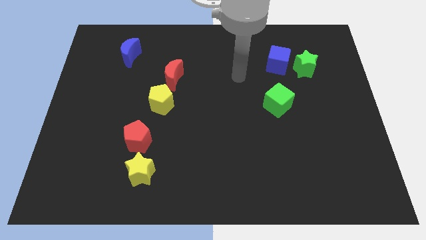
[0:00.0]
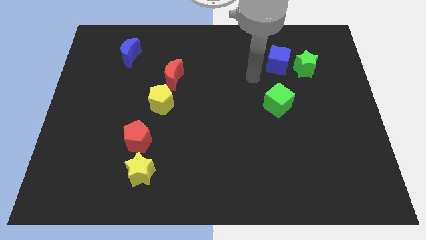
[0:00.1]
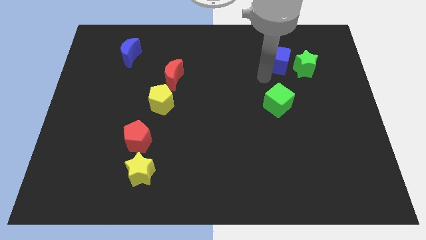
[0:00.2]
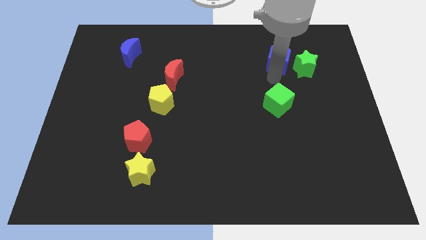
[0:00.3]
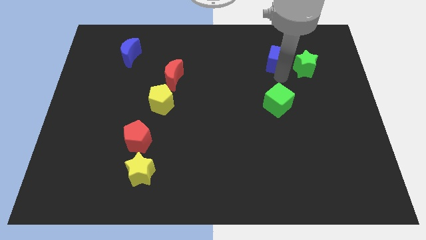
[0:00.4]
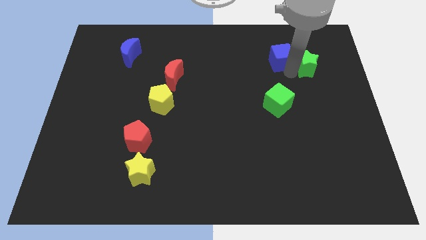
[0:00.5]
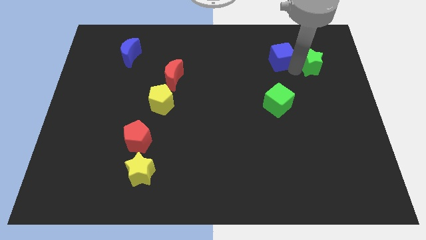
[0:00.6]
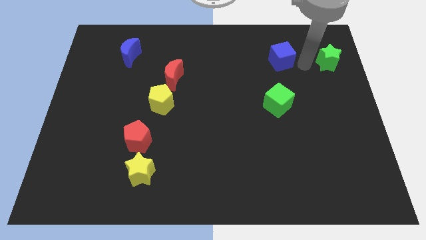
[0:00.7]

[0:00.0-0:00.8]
separate the blue cube from the green star

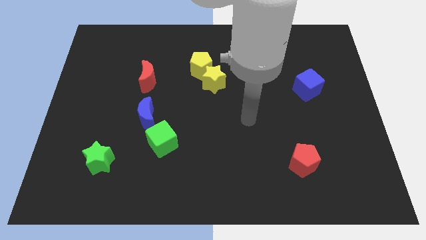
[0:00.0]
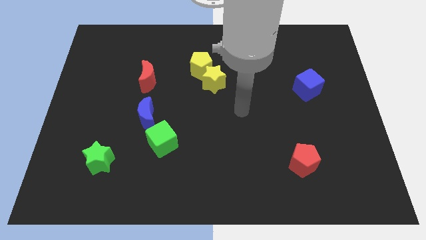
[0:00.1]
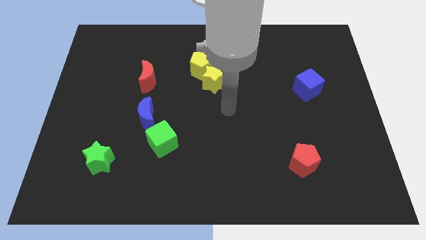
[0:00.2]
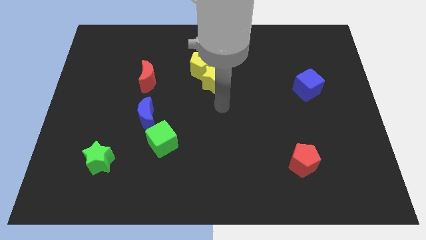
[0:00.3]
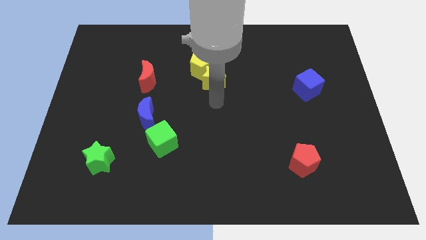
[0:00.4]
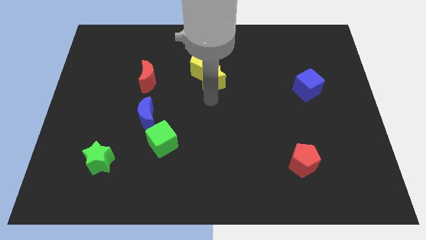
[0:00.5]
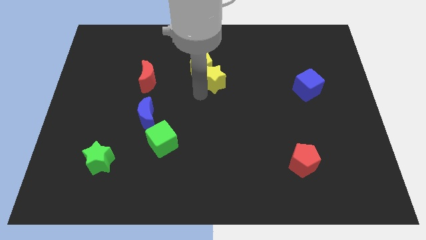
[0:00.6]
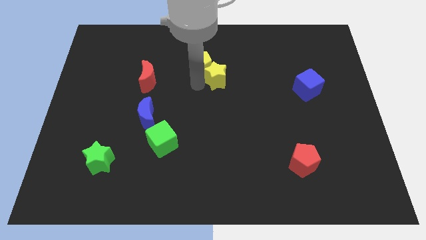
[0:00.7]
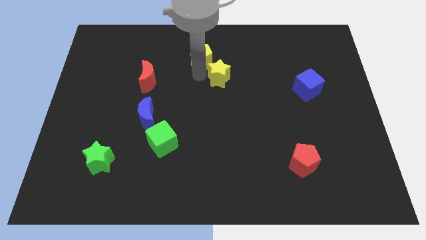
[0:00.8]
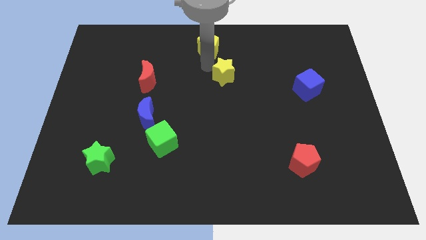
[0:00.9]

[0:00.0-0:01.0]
move the yellow star away from the yellow pentagon

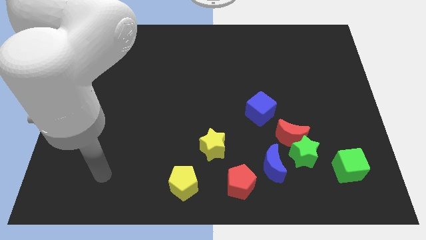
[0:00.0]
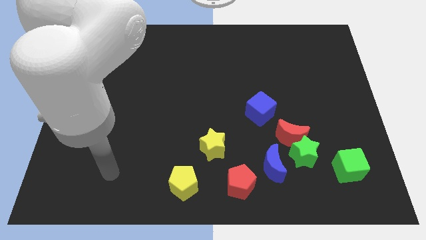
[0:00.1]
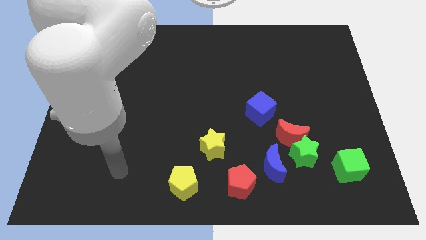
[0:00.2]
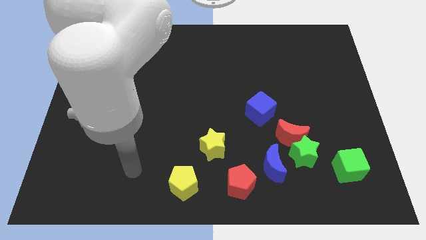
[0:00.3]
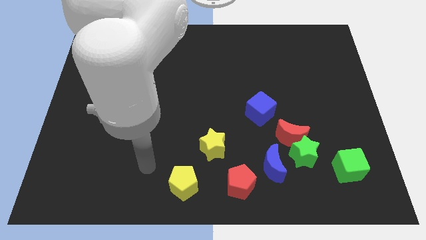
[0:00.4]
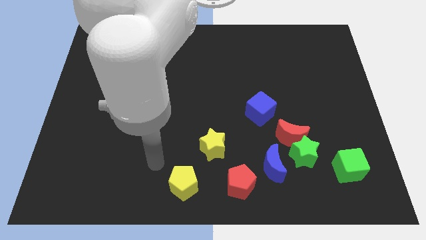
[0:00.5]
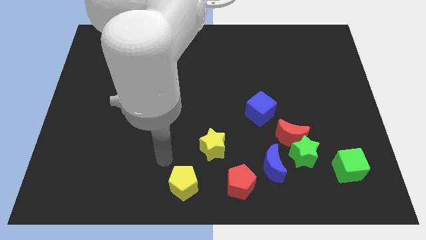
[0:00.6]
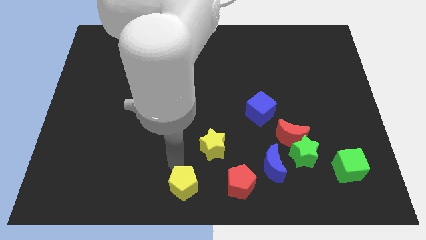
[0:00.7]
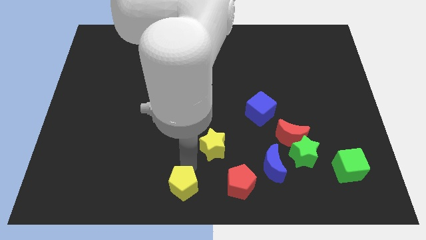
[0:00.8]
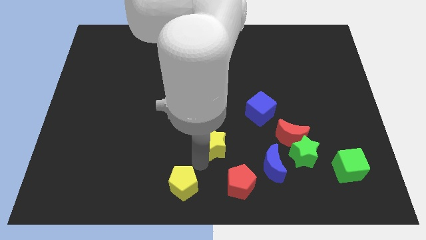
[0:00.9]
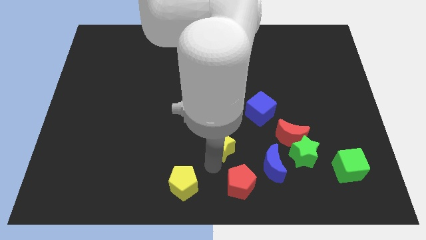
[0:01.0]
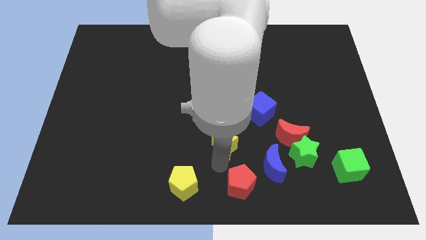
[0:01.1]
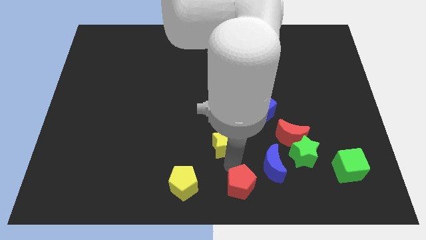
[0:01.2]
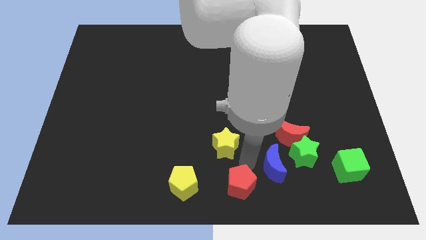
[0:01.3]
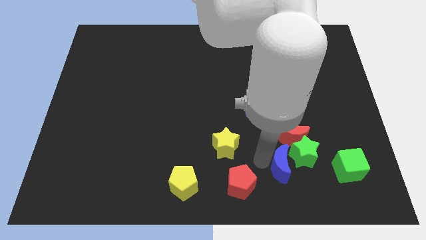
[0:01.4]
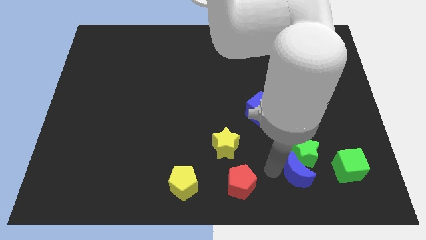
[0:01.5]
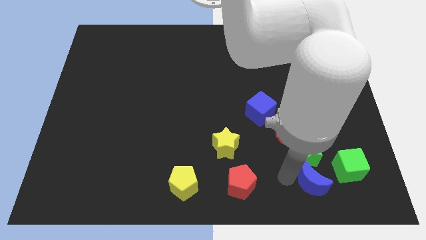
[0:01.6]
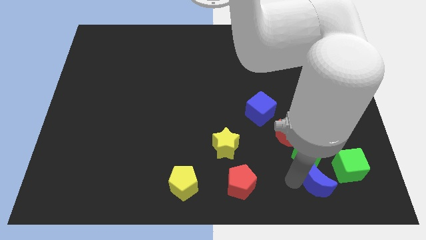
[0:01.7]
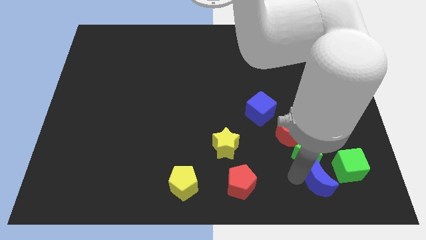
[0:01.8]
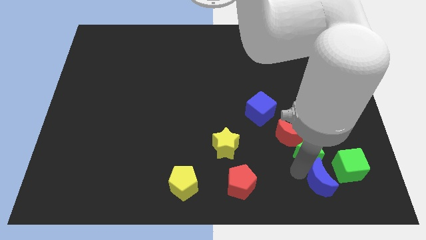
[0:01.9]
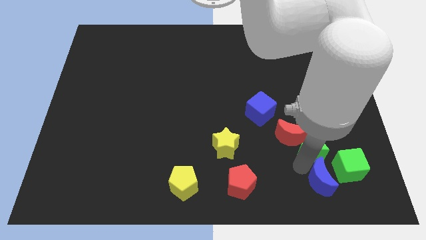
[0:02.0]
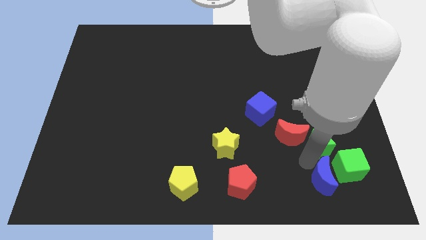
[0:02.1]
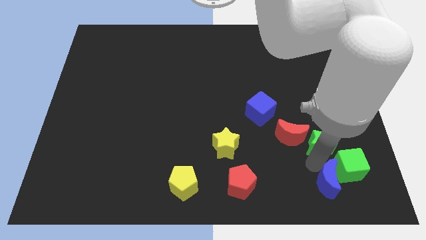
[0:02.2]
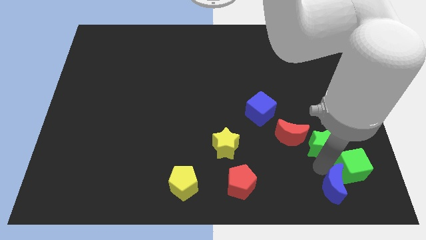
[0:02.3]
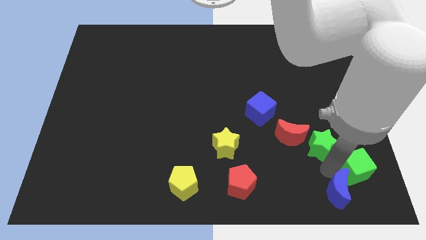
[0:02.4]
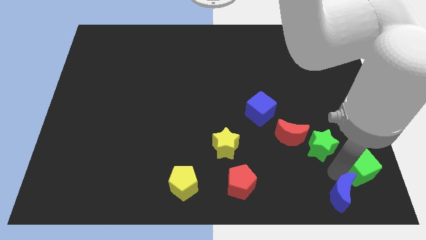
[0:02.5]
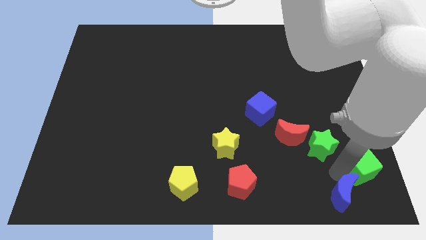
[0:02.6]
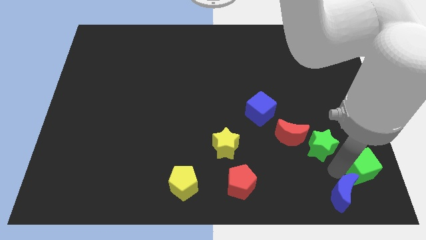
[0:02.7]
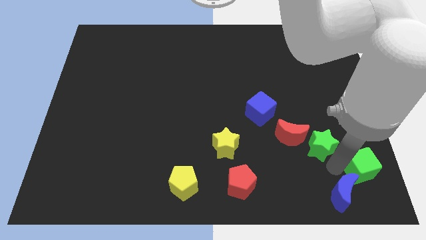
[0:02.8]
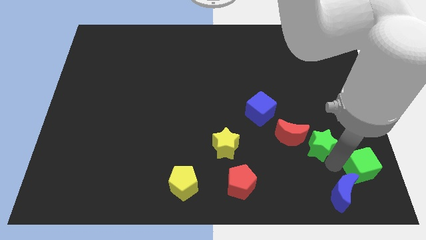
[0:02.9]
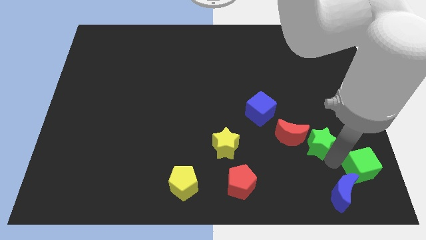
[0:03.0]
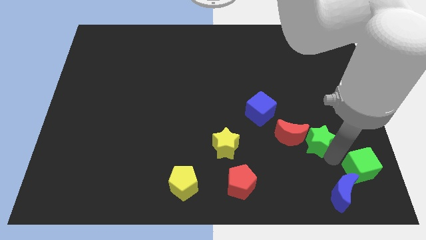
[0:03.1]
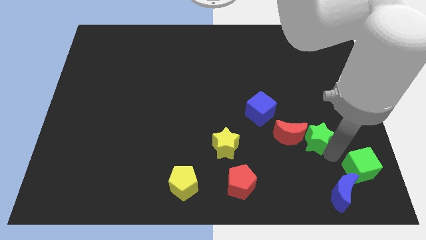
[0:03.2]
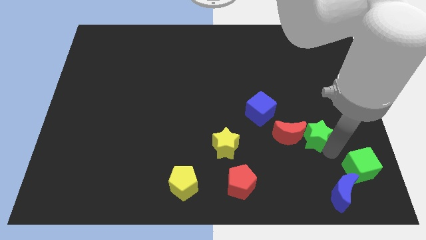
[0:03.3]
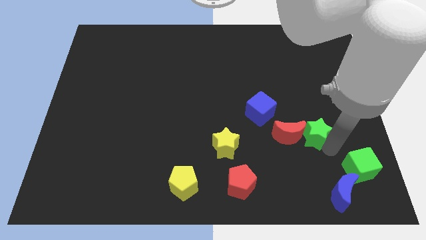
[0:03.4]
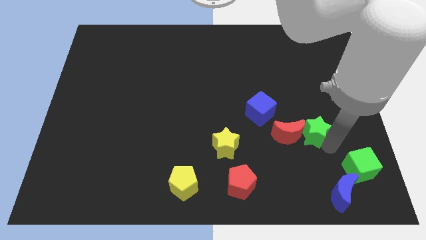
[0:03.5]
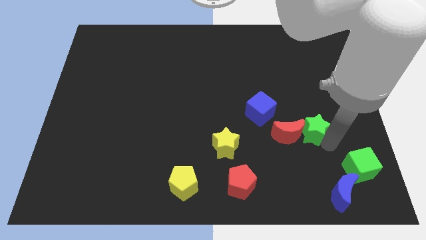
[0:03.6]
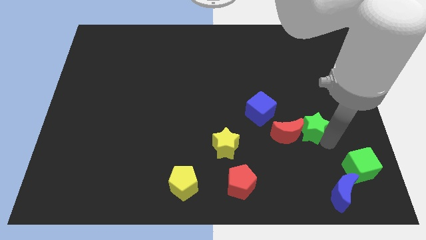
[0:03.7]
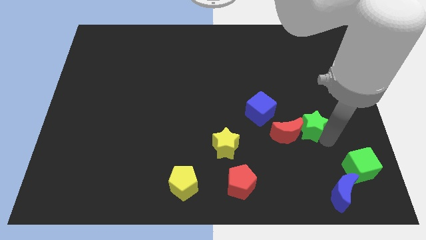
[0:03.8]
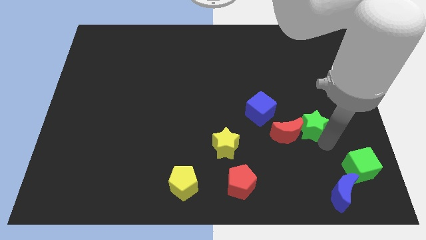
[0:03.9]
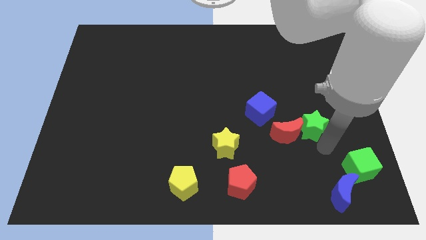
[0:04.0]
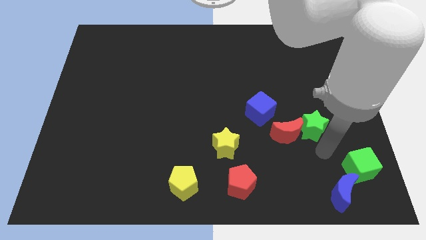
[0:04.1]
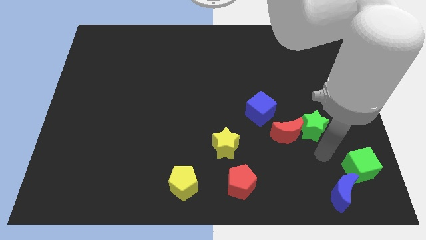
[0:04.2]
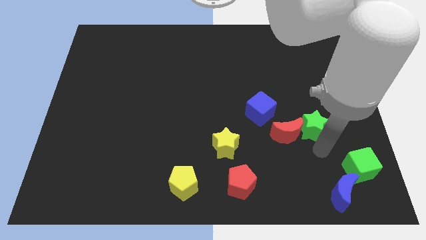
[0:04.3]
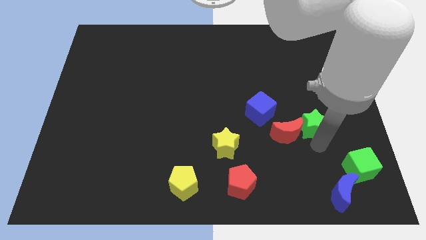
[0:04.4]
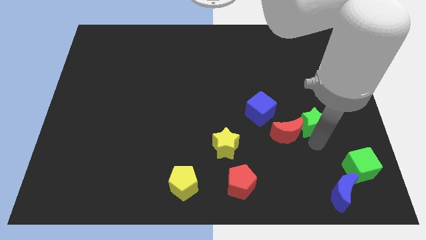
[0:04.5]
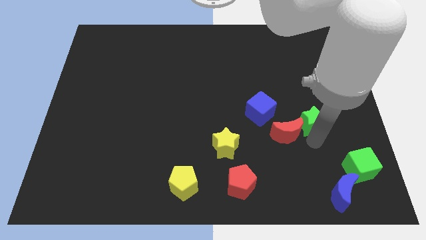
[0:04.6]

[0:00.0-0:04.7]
separate the green star from the red moon, blue moon, and green cube

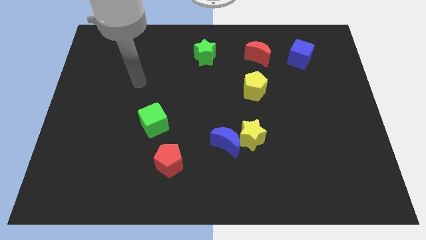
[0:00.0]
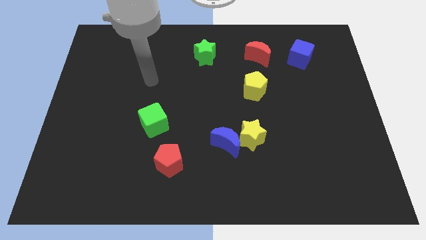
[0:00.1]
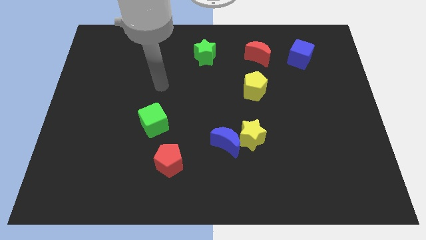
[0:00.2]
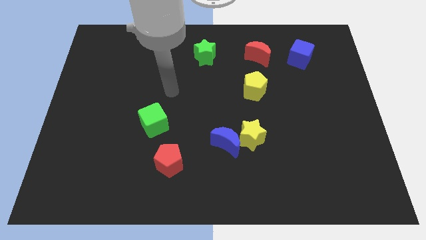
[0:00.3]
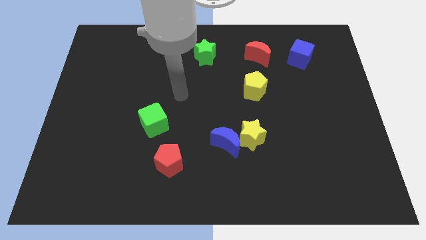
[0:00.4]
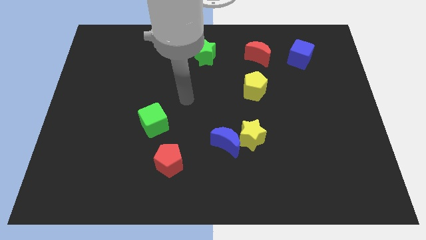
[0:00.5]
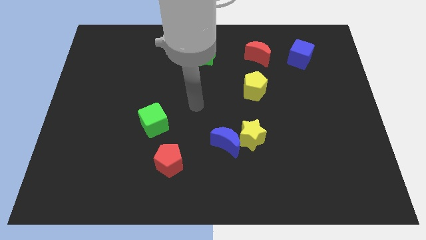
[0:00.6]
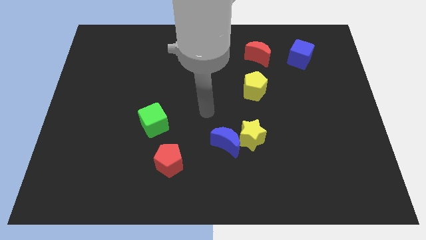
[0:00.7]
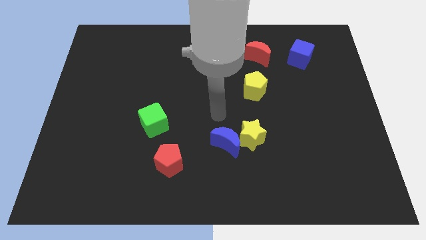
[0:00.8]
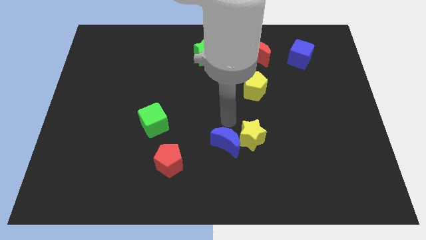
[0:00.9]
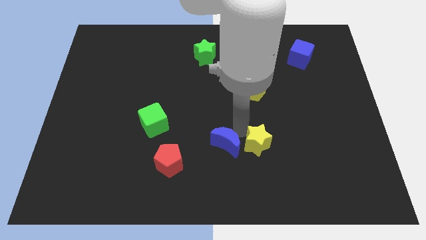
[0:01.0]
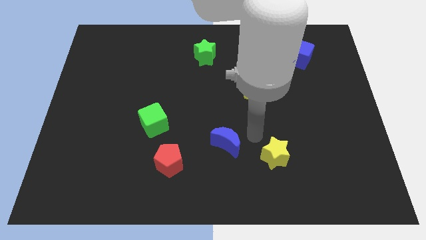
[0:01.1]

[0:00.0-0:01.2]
pull the blue moon apart from the yellow star

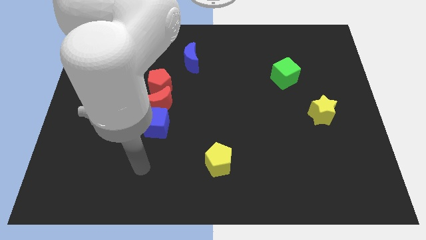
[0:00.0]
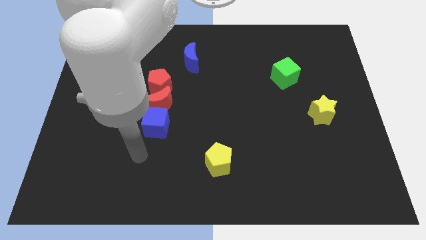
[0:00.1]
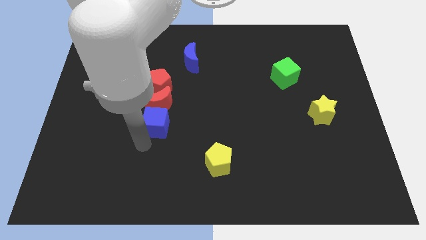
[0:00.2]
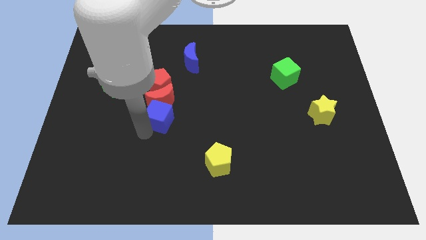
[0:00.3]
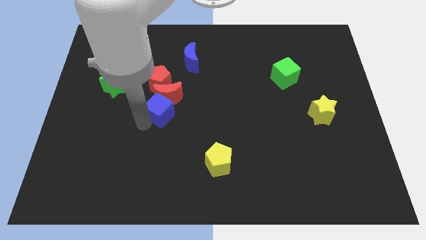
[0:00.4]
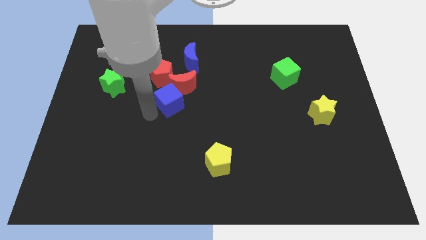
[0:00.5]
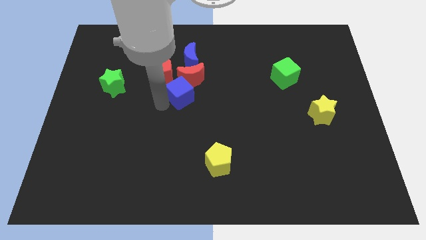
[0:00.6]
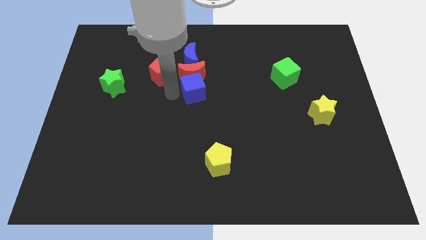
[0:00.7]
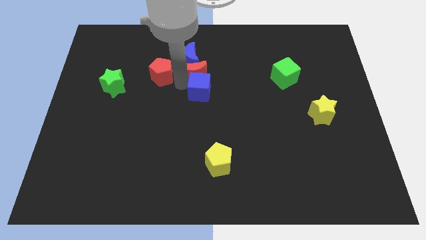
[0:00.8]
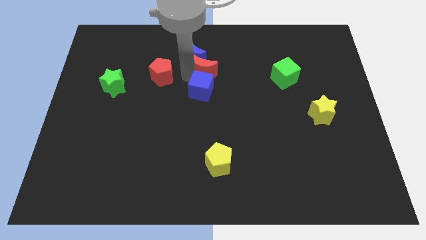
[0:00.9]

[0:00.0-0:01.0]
separate the red pentagon from the red moon

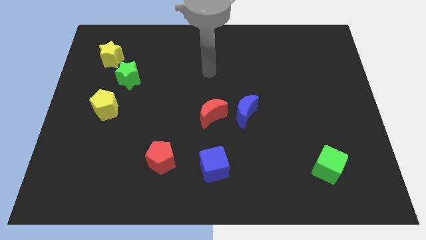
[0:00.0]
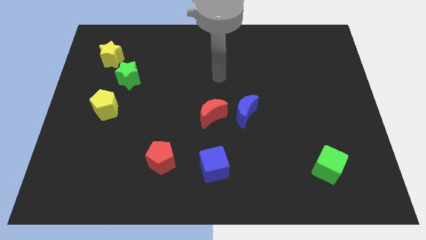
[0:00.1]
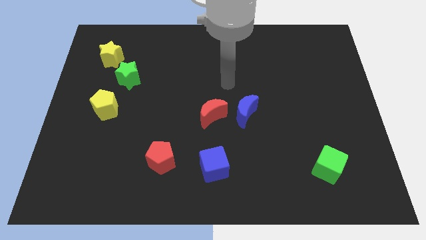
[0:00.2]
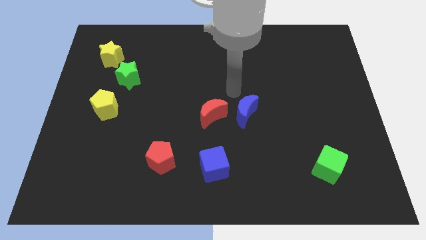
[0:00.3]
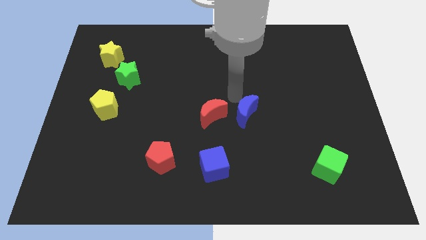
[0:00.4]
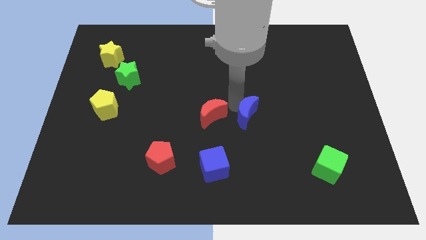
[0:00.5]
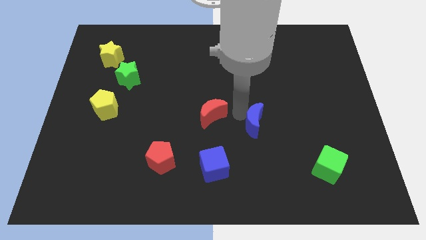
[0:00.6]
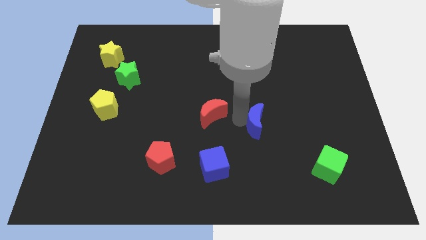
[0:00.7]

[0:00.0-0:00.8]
pull the red moon apart from the blue moon
